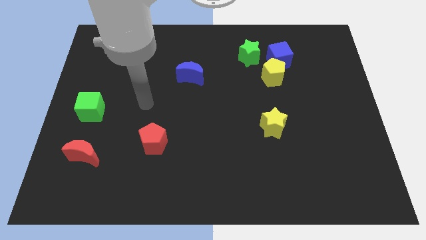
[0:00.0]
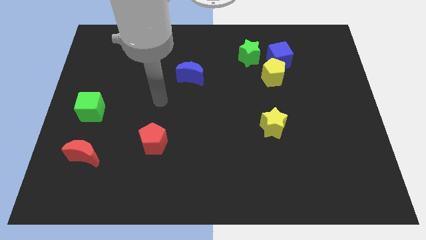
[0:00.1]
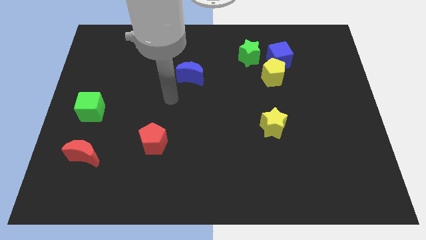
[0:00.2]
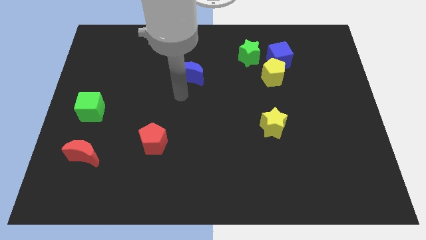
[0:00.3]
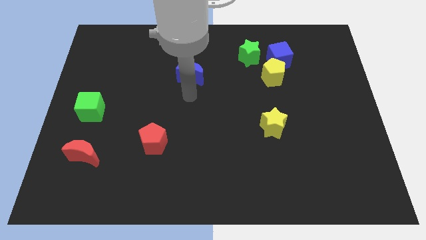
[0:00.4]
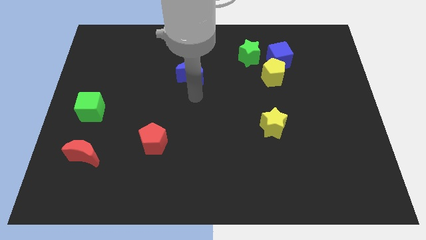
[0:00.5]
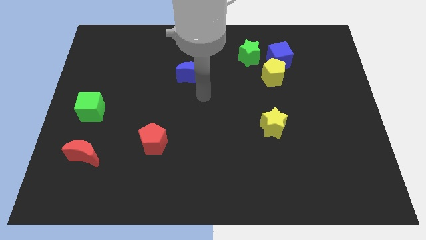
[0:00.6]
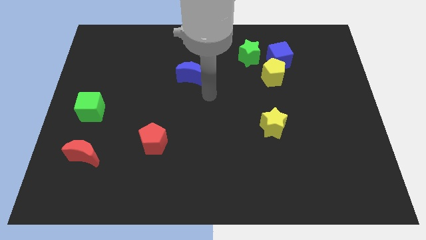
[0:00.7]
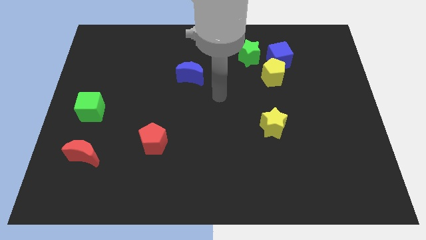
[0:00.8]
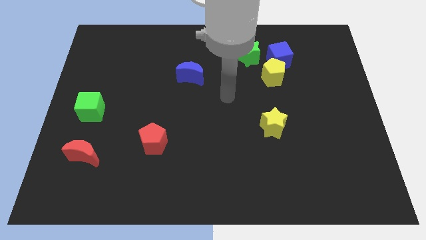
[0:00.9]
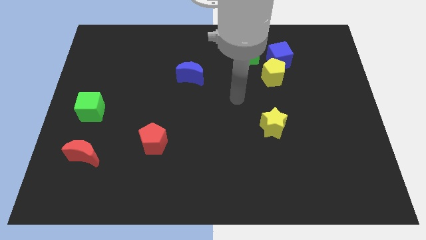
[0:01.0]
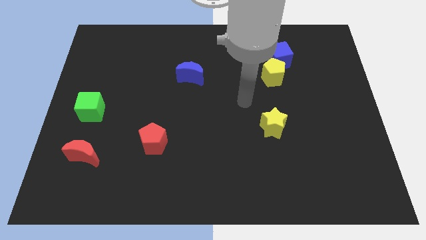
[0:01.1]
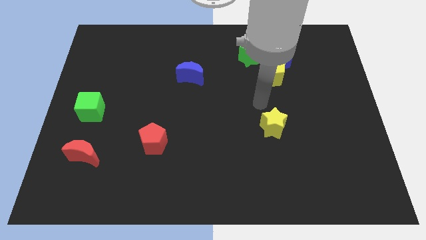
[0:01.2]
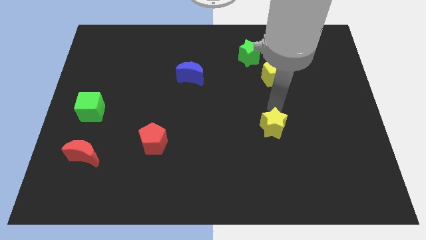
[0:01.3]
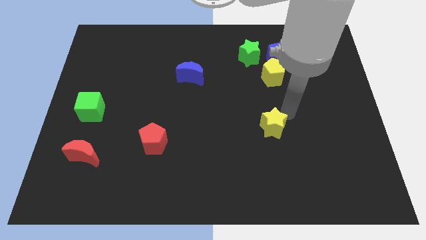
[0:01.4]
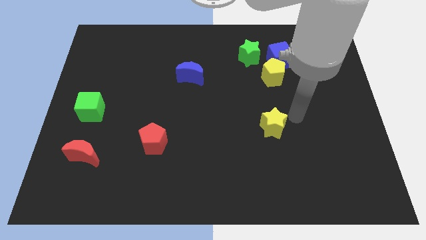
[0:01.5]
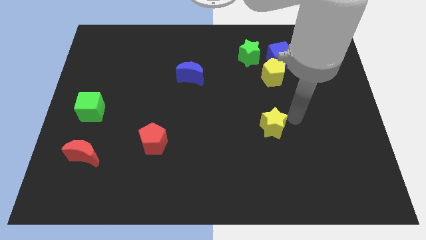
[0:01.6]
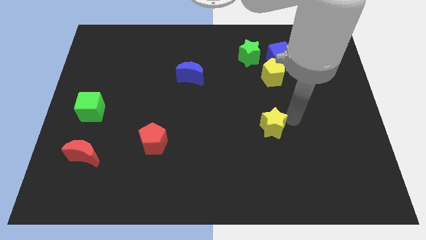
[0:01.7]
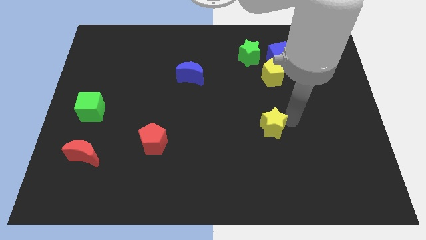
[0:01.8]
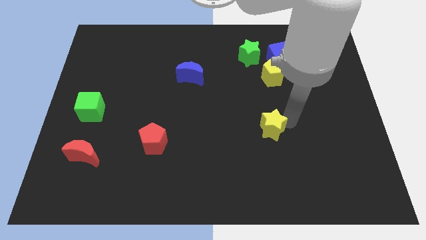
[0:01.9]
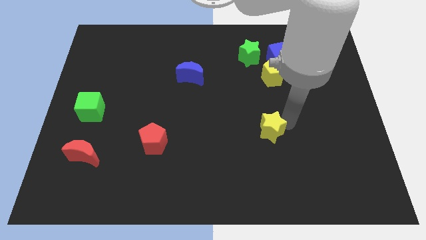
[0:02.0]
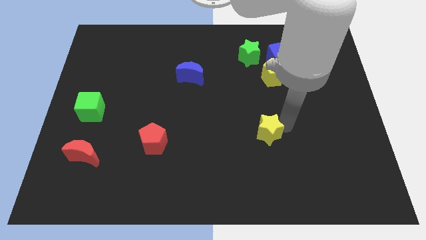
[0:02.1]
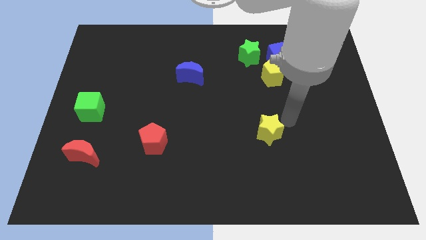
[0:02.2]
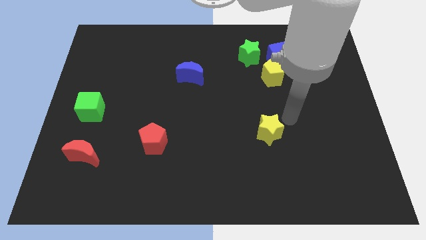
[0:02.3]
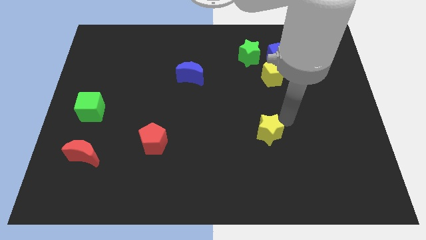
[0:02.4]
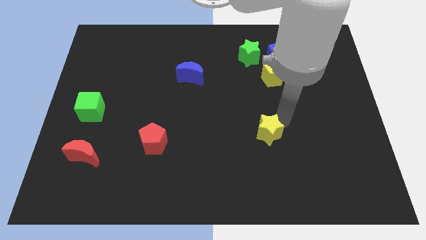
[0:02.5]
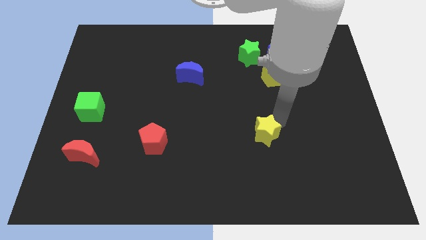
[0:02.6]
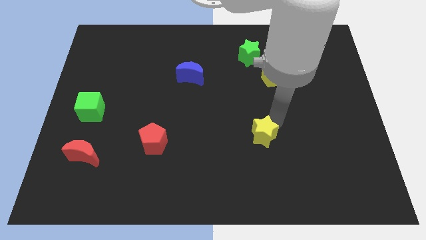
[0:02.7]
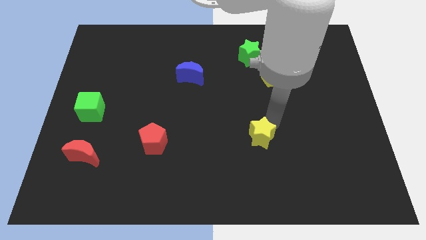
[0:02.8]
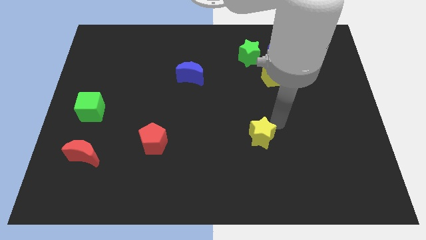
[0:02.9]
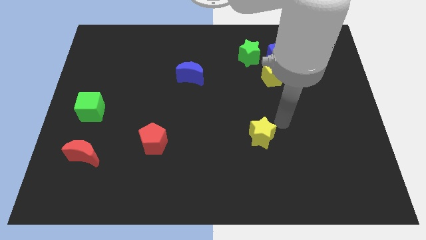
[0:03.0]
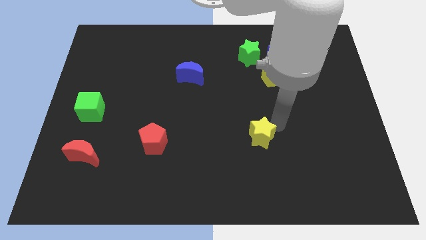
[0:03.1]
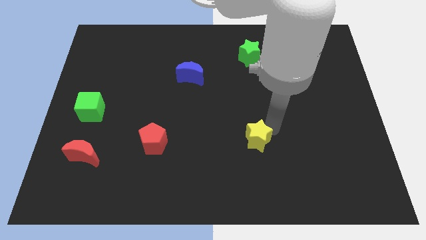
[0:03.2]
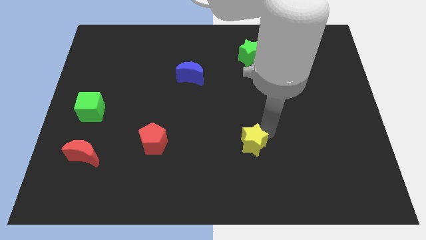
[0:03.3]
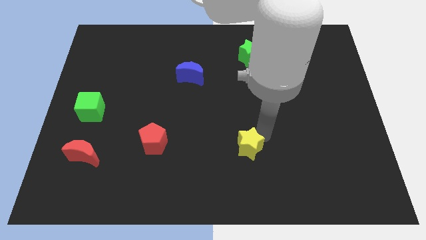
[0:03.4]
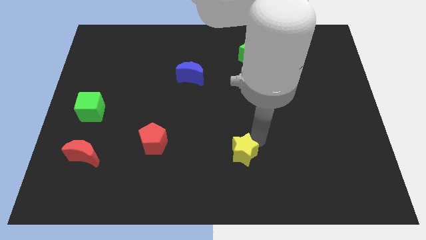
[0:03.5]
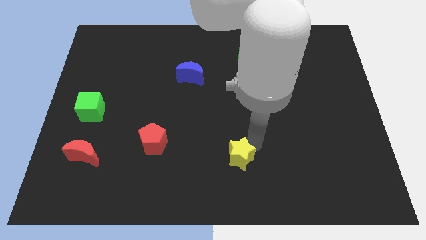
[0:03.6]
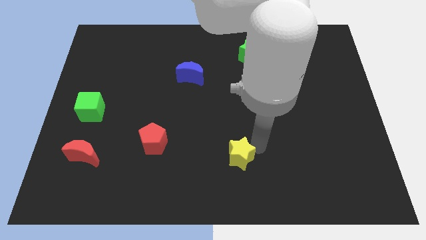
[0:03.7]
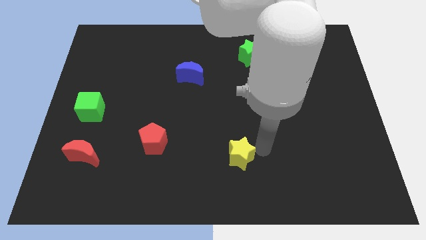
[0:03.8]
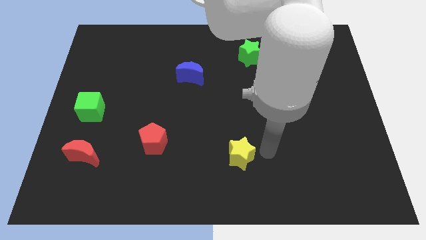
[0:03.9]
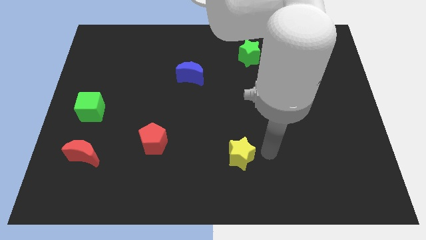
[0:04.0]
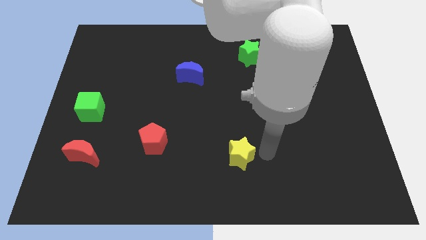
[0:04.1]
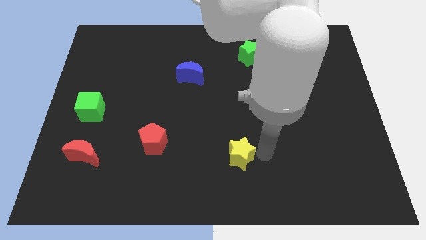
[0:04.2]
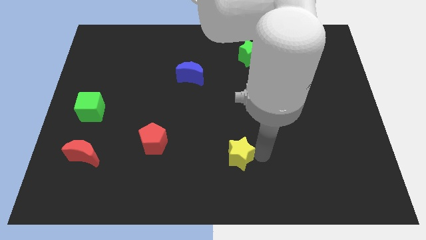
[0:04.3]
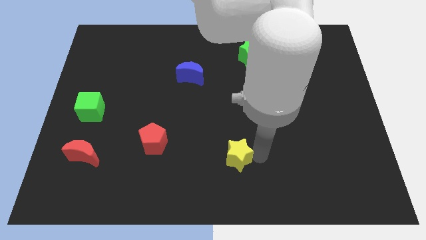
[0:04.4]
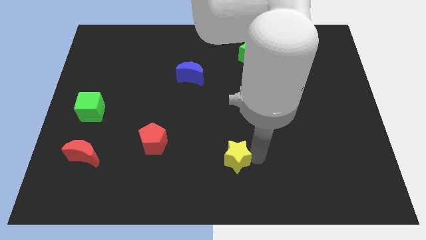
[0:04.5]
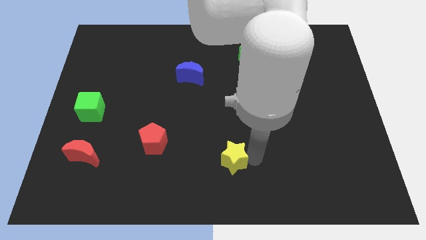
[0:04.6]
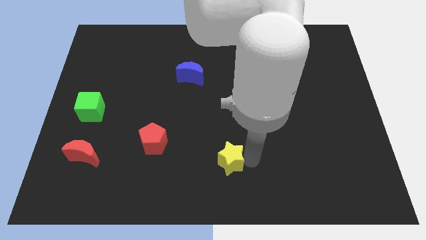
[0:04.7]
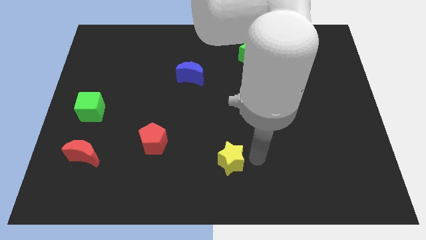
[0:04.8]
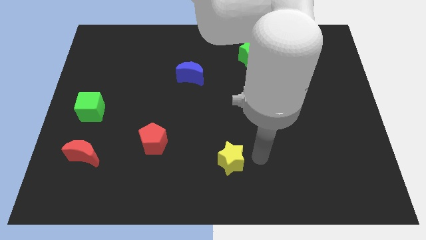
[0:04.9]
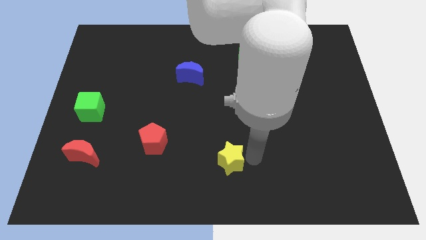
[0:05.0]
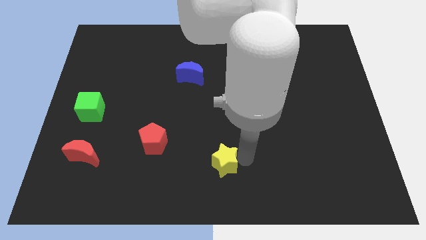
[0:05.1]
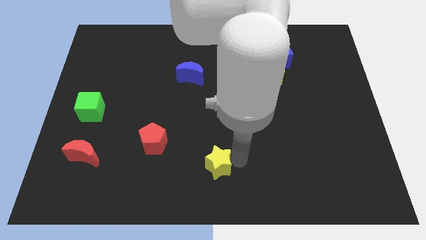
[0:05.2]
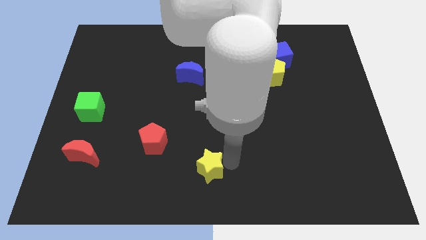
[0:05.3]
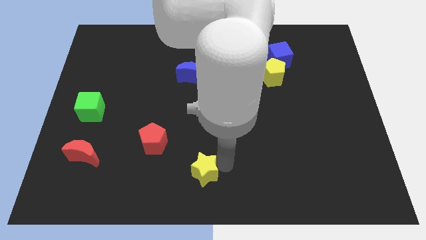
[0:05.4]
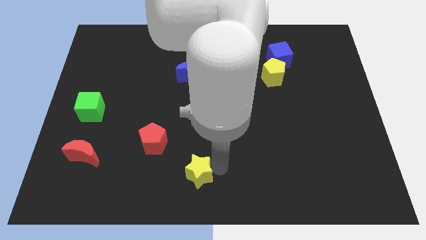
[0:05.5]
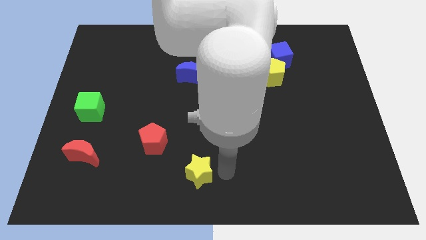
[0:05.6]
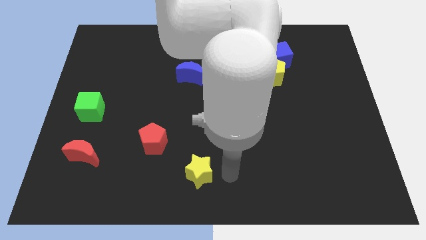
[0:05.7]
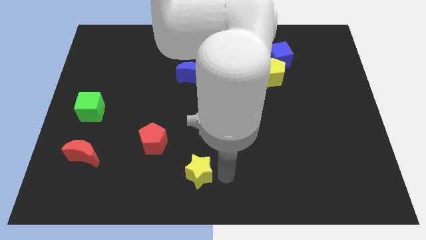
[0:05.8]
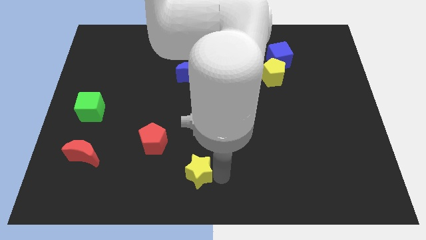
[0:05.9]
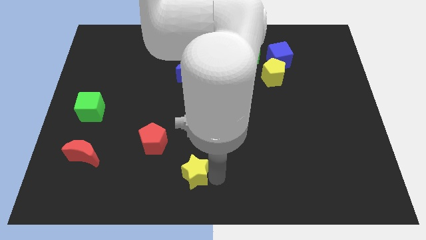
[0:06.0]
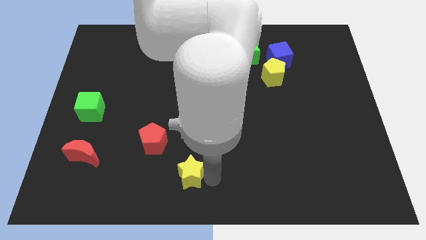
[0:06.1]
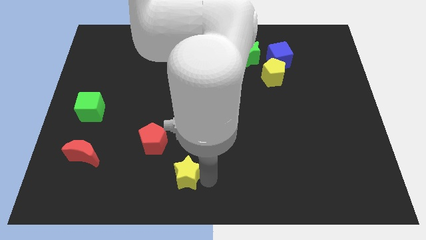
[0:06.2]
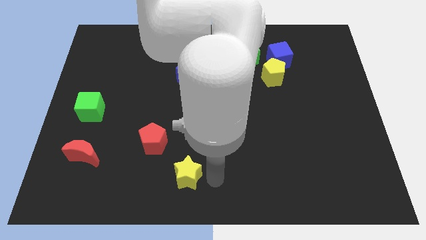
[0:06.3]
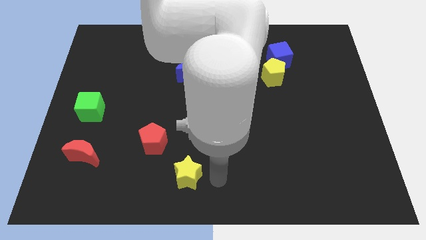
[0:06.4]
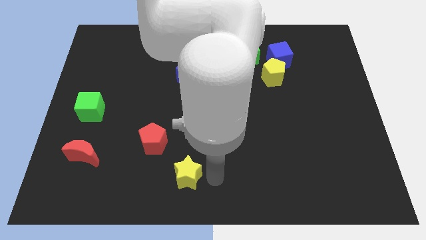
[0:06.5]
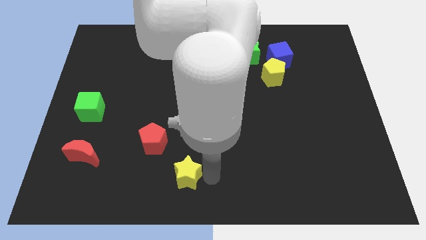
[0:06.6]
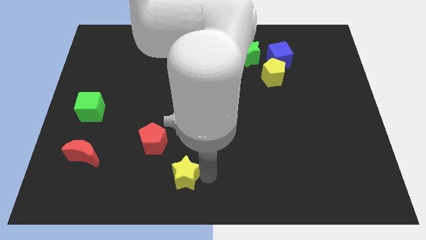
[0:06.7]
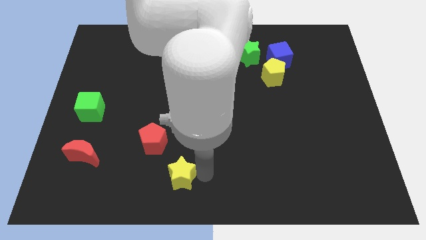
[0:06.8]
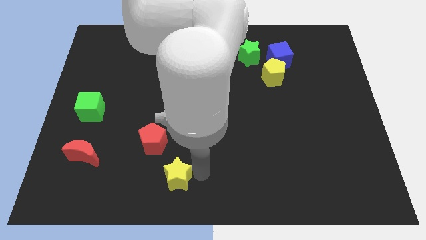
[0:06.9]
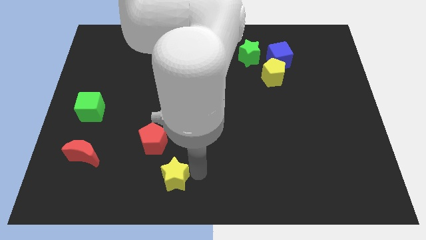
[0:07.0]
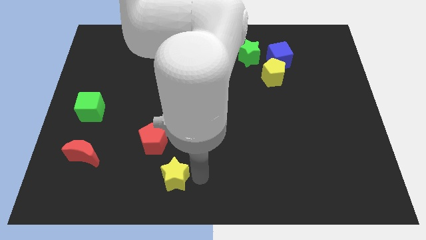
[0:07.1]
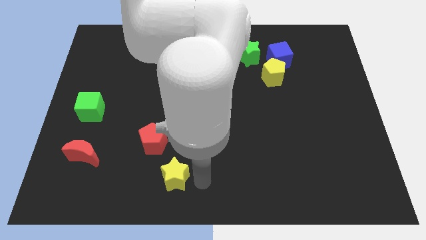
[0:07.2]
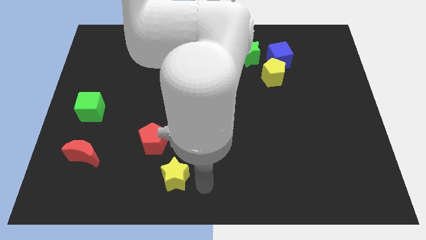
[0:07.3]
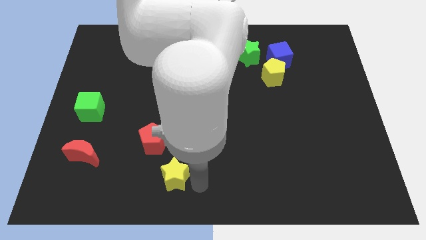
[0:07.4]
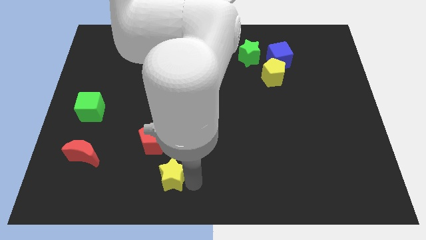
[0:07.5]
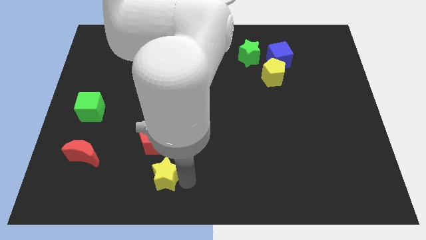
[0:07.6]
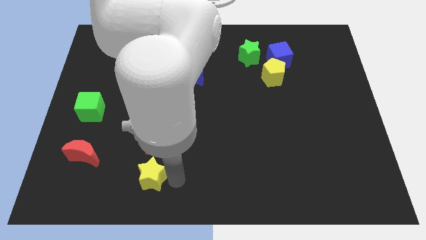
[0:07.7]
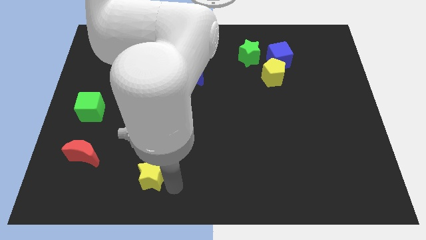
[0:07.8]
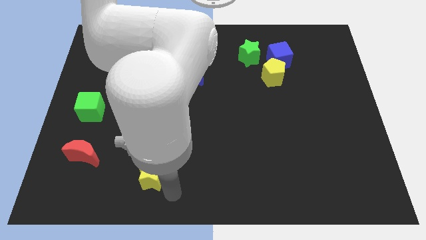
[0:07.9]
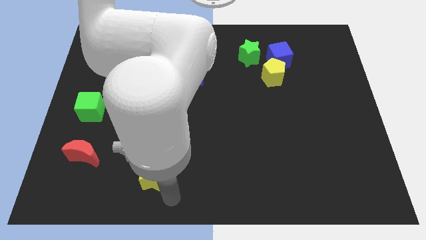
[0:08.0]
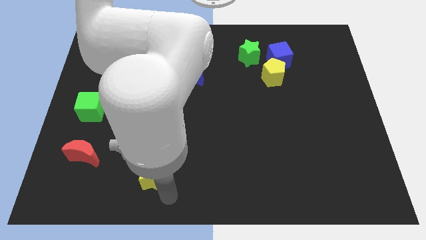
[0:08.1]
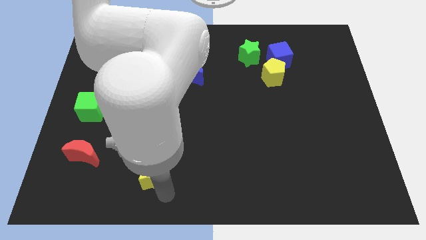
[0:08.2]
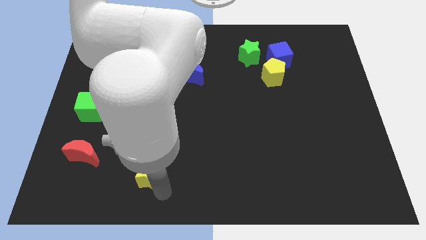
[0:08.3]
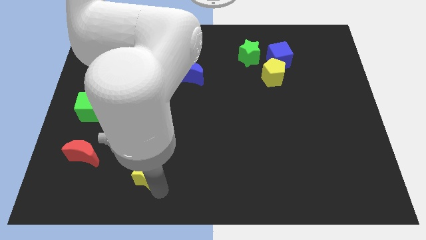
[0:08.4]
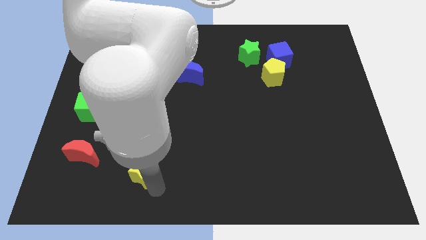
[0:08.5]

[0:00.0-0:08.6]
move the yellow star just right of the red moon
